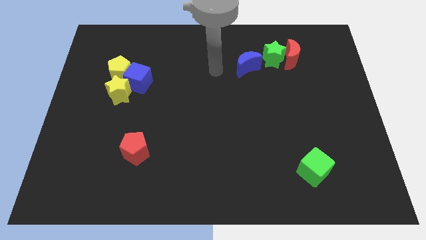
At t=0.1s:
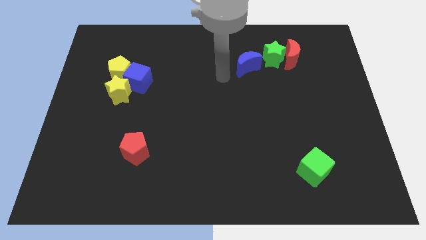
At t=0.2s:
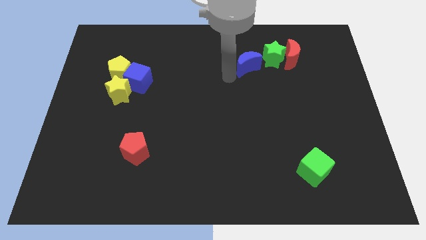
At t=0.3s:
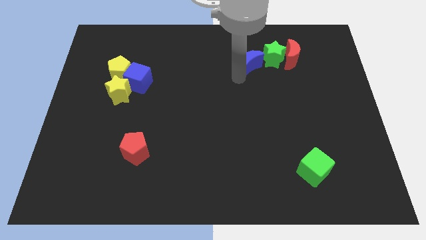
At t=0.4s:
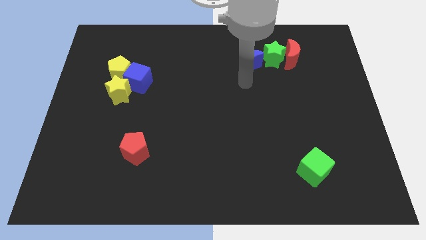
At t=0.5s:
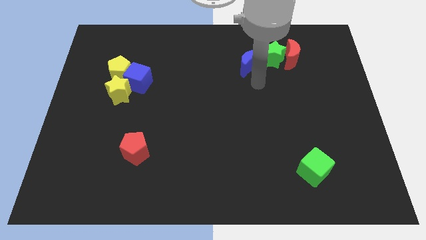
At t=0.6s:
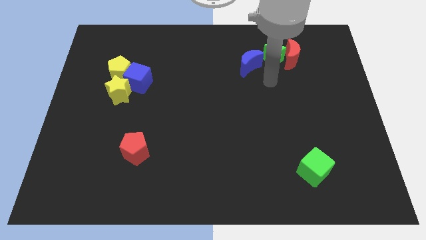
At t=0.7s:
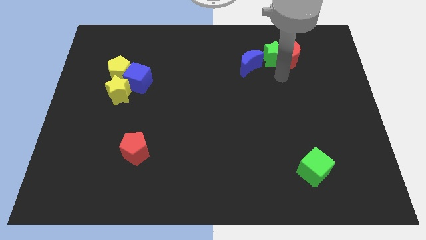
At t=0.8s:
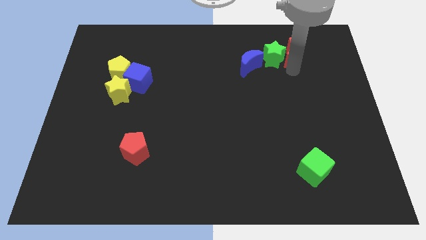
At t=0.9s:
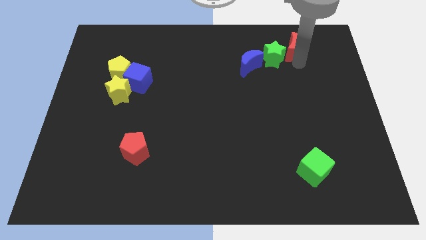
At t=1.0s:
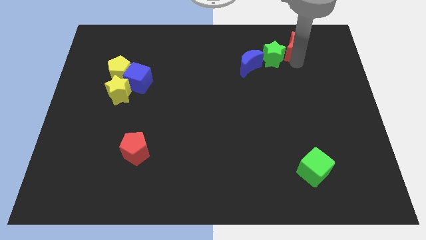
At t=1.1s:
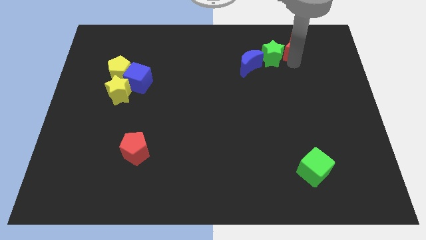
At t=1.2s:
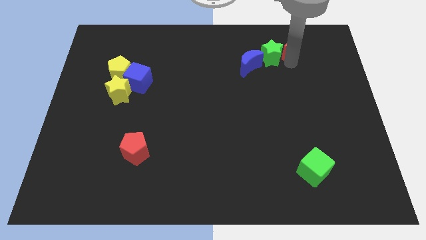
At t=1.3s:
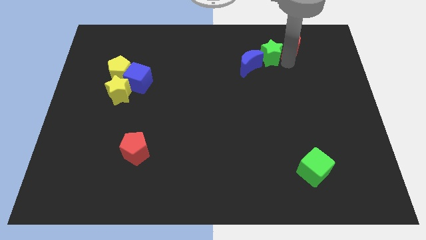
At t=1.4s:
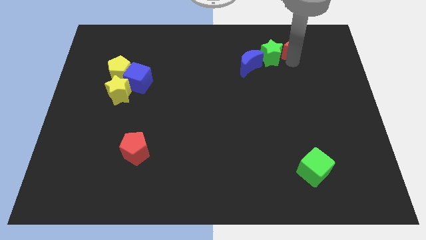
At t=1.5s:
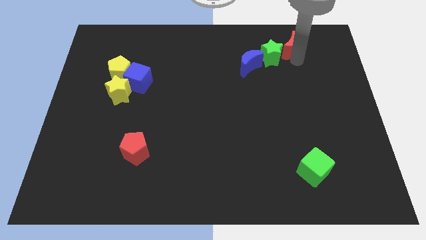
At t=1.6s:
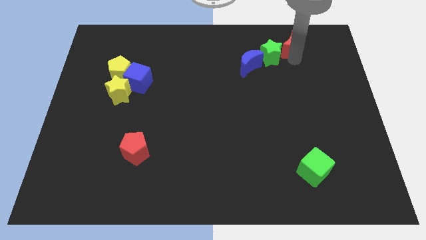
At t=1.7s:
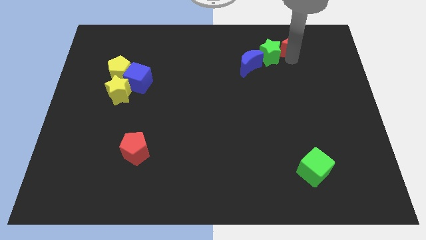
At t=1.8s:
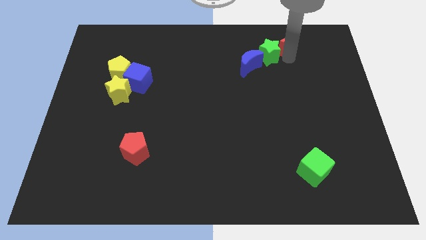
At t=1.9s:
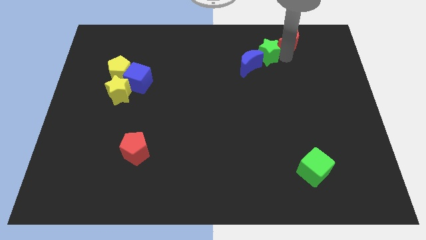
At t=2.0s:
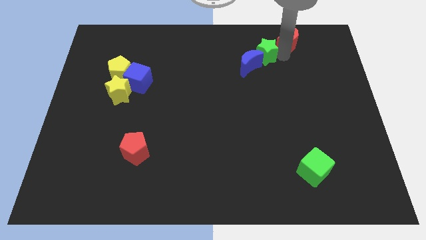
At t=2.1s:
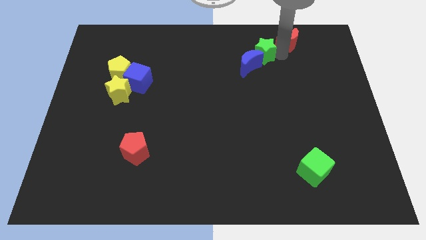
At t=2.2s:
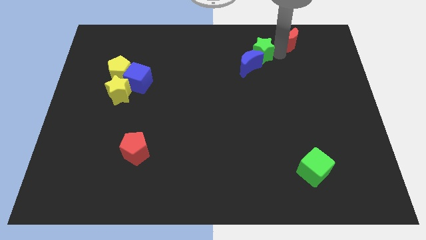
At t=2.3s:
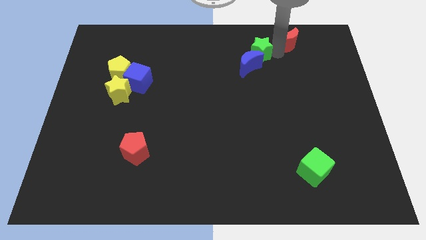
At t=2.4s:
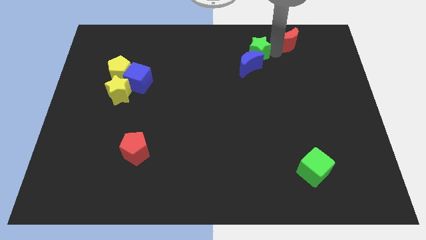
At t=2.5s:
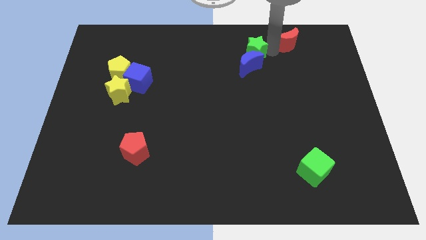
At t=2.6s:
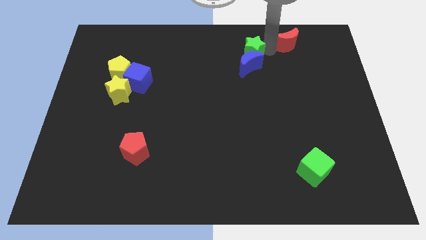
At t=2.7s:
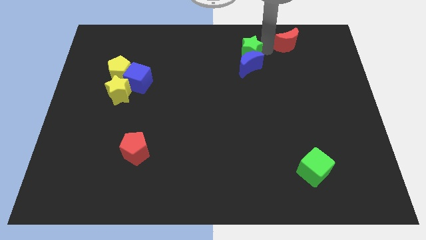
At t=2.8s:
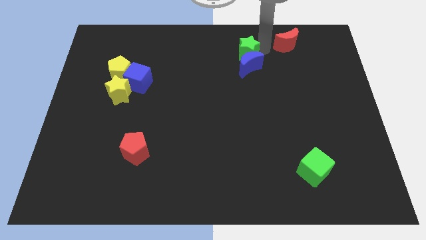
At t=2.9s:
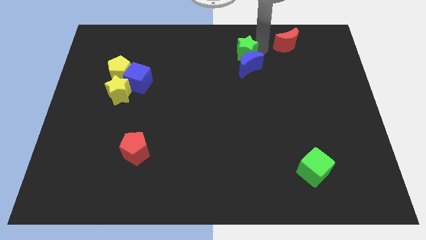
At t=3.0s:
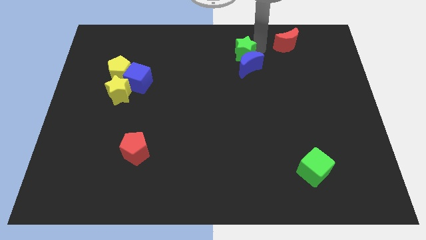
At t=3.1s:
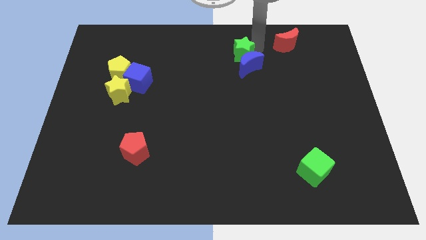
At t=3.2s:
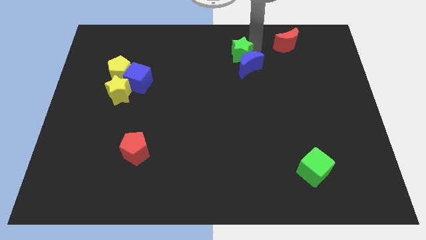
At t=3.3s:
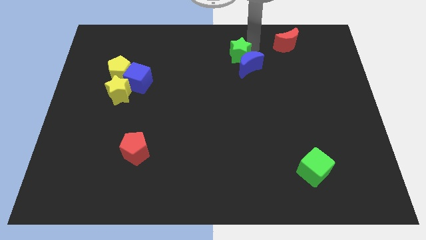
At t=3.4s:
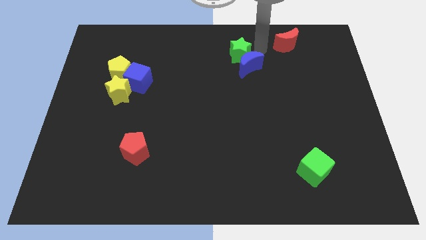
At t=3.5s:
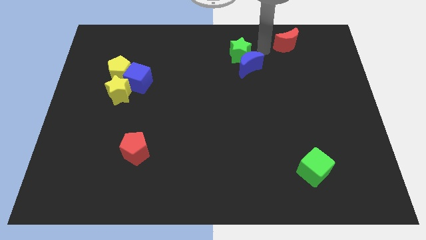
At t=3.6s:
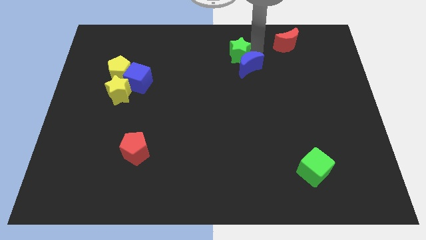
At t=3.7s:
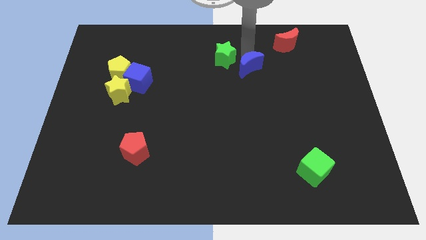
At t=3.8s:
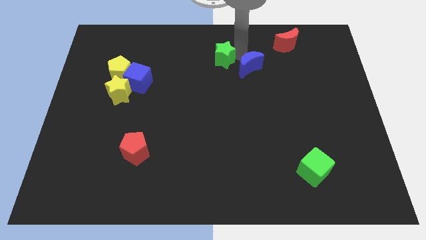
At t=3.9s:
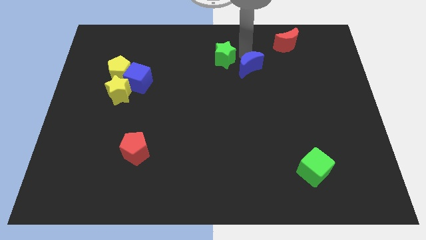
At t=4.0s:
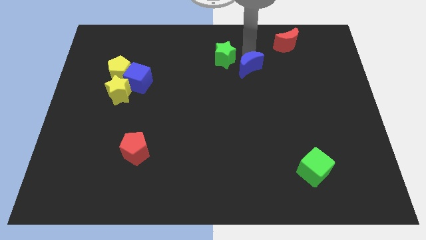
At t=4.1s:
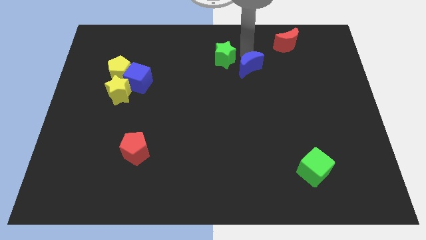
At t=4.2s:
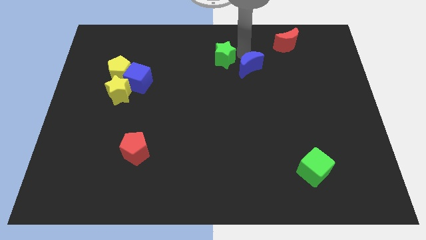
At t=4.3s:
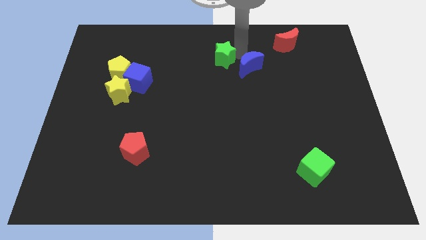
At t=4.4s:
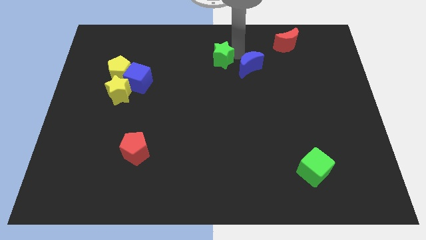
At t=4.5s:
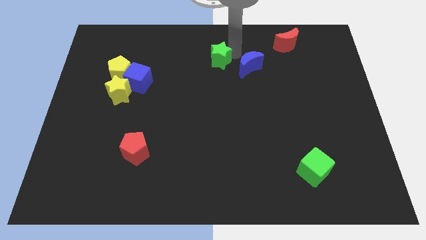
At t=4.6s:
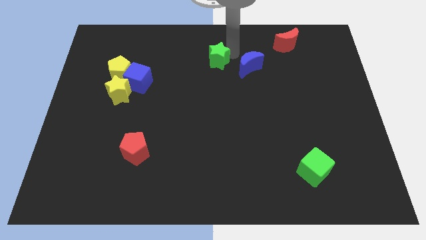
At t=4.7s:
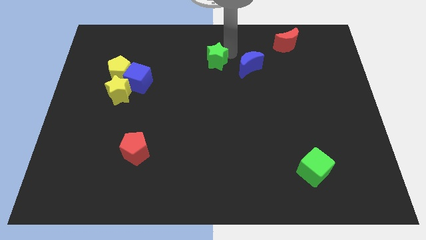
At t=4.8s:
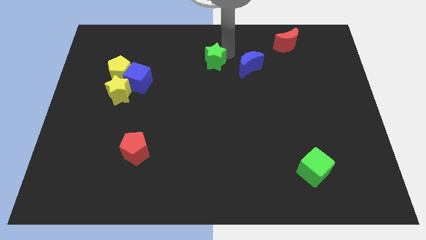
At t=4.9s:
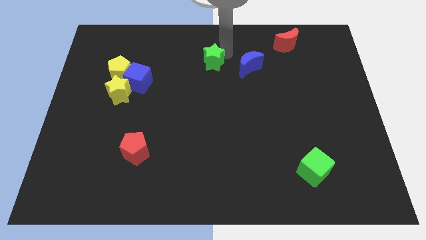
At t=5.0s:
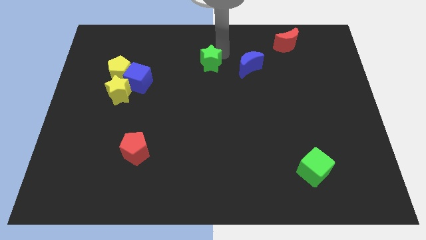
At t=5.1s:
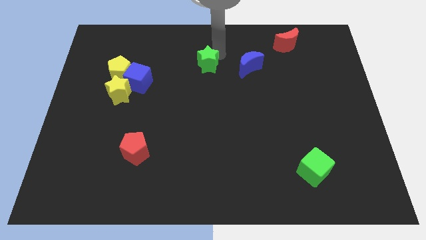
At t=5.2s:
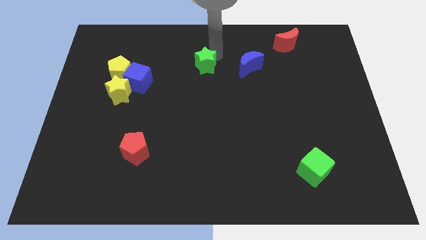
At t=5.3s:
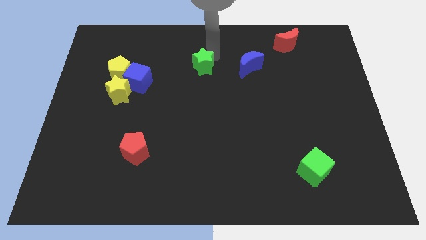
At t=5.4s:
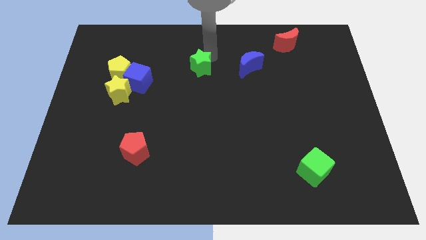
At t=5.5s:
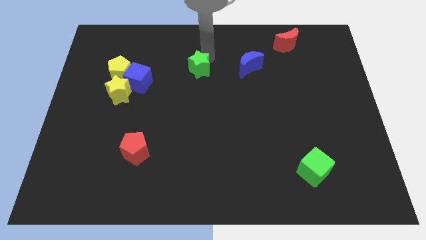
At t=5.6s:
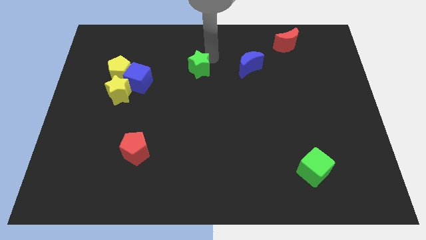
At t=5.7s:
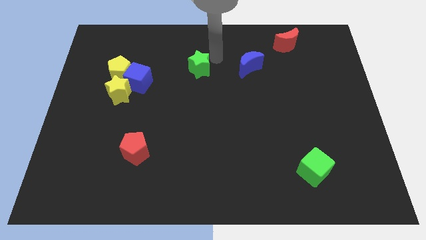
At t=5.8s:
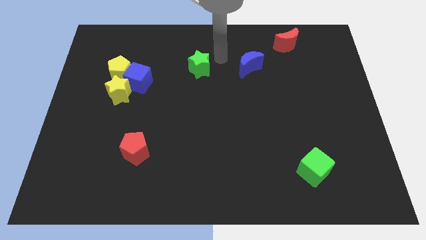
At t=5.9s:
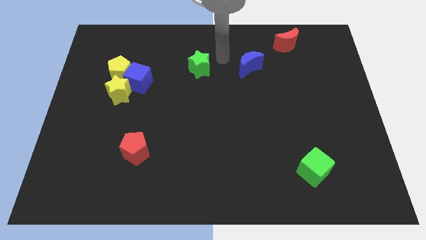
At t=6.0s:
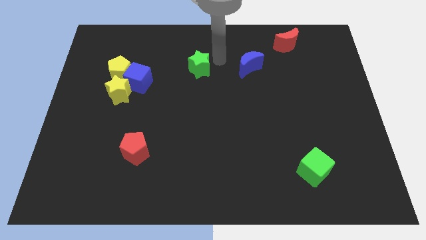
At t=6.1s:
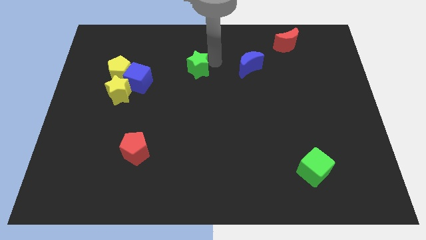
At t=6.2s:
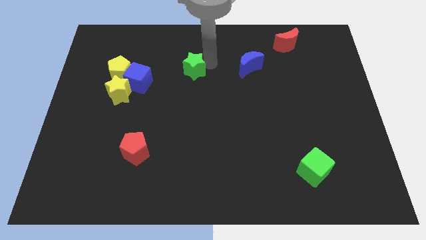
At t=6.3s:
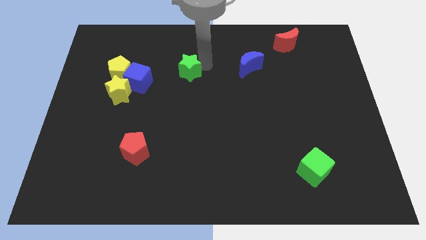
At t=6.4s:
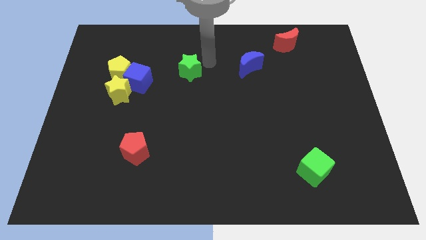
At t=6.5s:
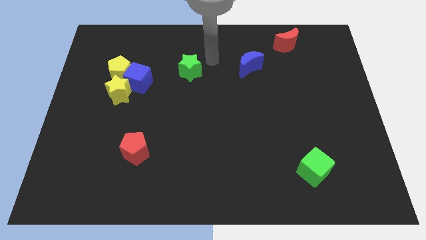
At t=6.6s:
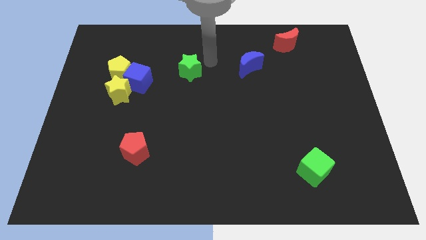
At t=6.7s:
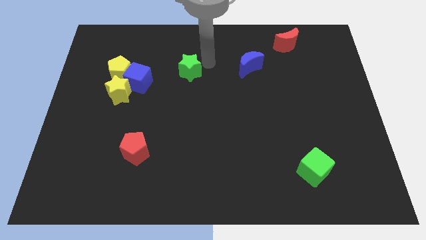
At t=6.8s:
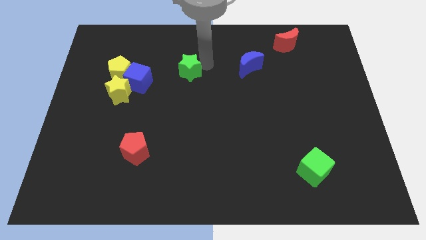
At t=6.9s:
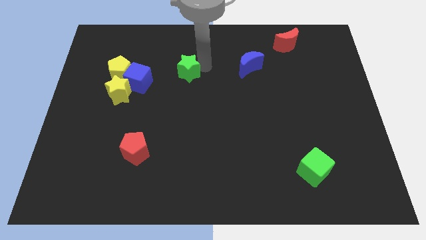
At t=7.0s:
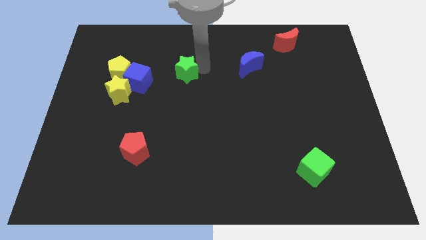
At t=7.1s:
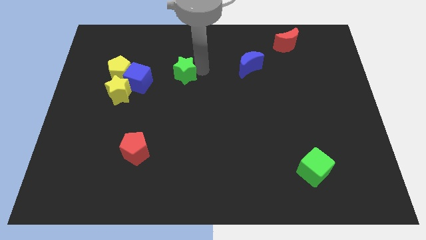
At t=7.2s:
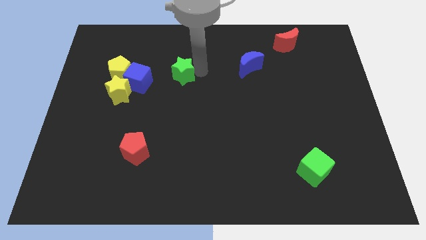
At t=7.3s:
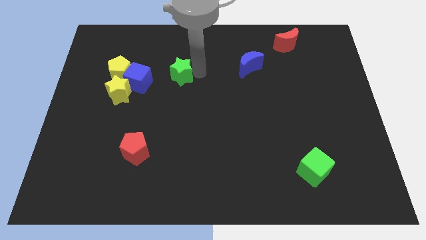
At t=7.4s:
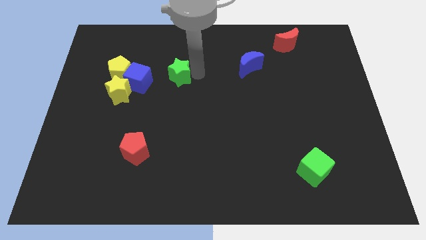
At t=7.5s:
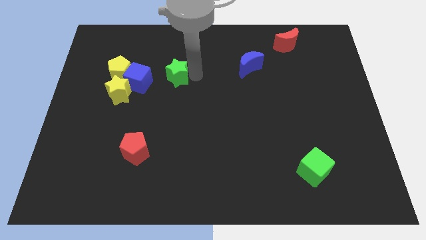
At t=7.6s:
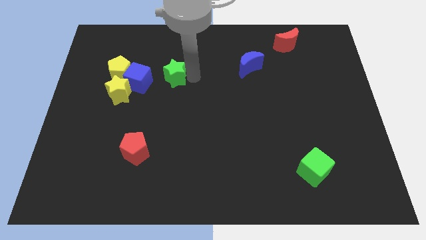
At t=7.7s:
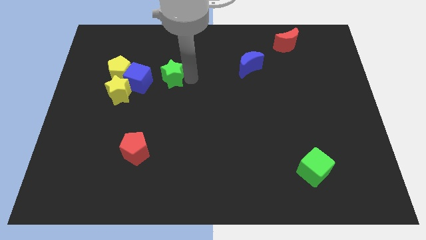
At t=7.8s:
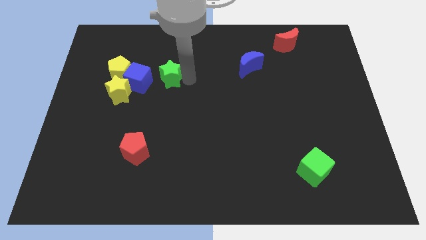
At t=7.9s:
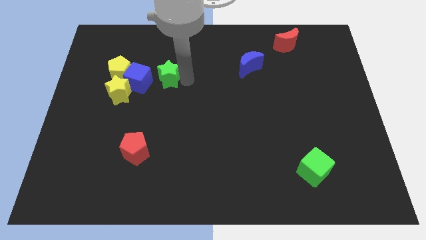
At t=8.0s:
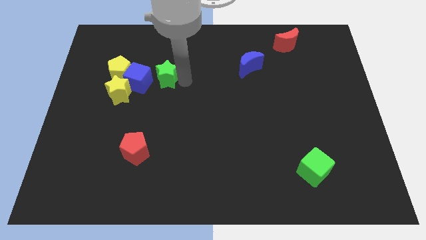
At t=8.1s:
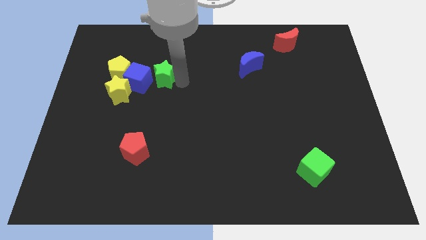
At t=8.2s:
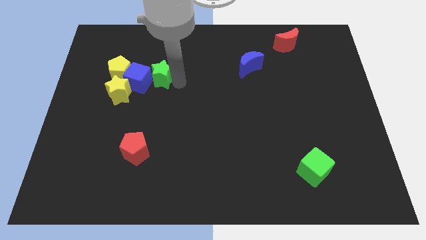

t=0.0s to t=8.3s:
slide the green star towards the blue cube
